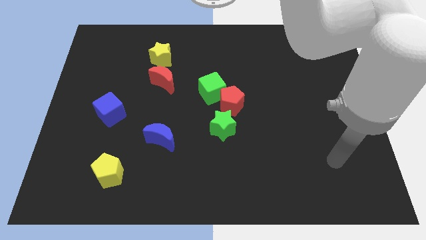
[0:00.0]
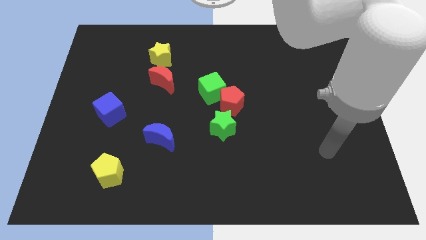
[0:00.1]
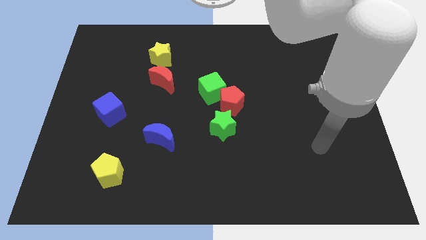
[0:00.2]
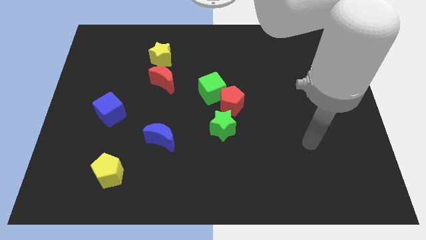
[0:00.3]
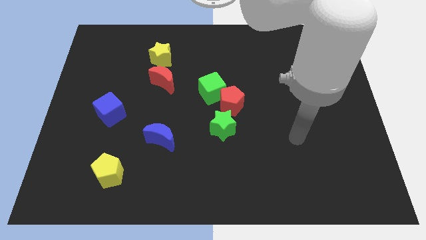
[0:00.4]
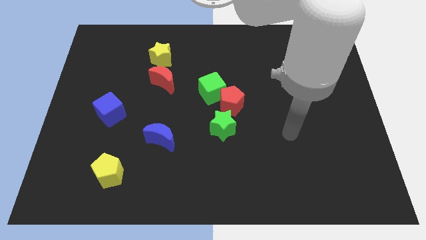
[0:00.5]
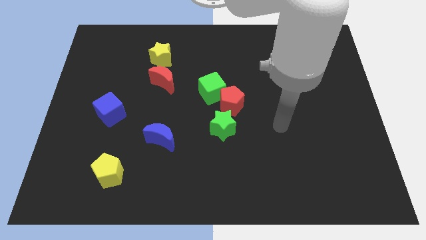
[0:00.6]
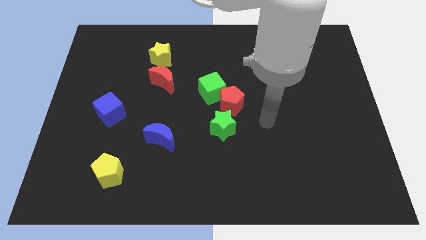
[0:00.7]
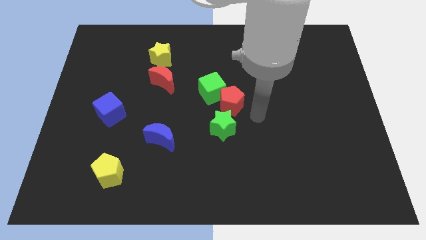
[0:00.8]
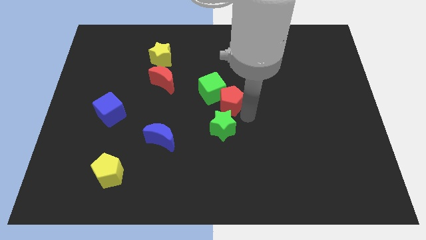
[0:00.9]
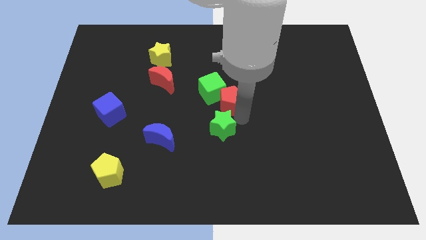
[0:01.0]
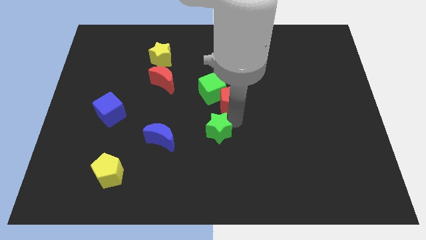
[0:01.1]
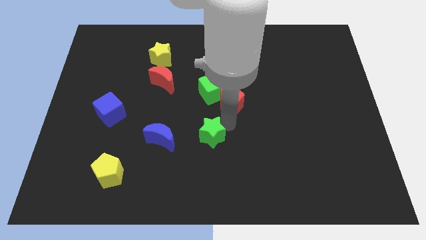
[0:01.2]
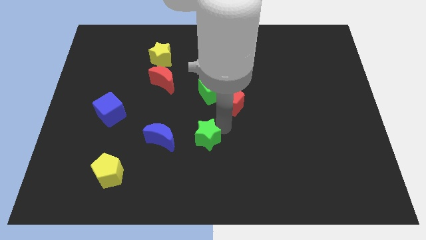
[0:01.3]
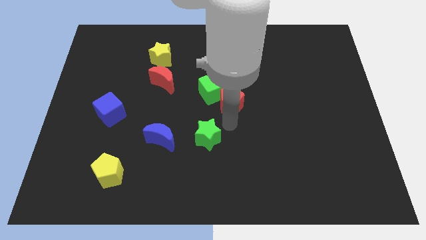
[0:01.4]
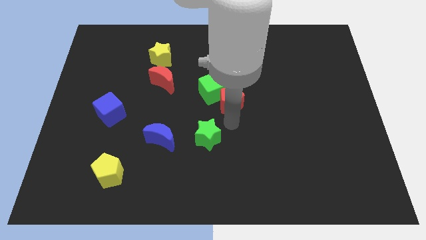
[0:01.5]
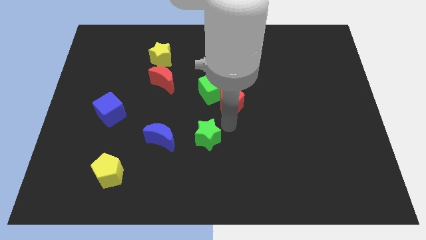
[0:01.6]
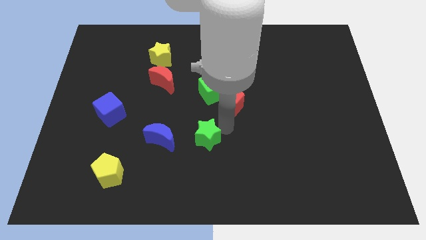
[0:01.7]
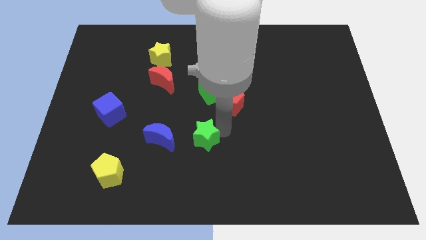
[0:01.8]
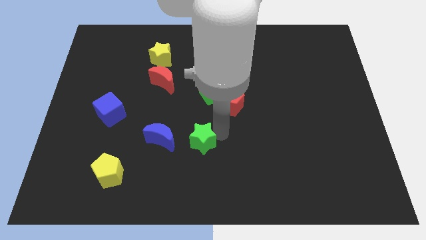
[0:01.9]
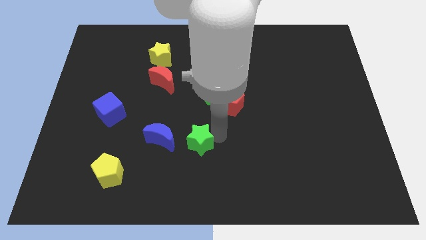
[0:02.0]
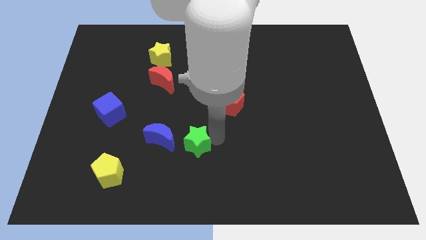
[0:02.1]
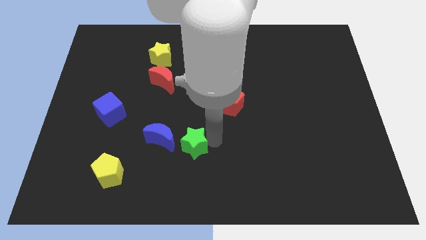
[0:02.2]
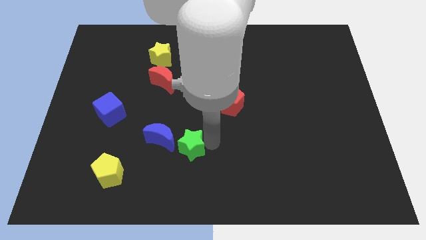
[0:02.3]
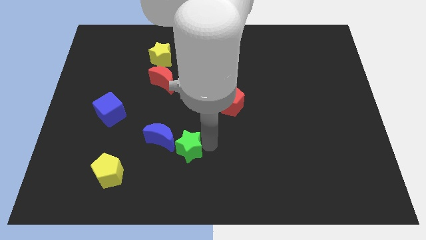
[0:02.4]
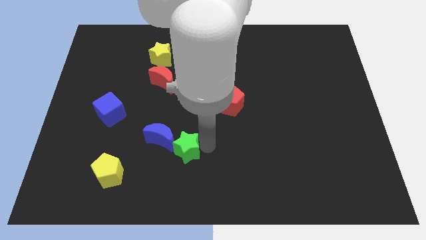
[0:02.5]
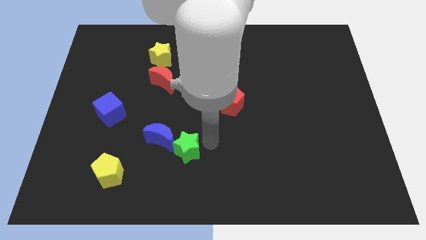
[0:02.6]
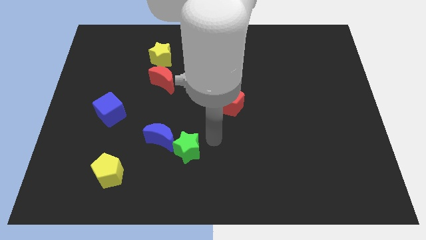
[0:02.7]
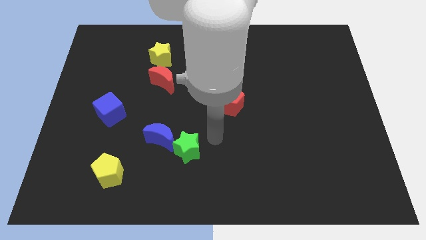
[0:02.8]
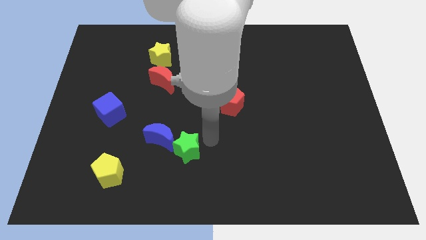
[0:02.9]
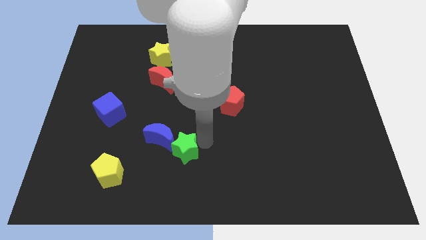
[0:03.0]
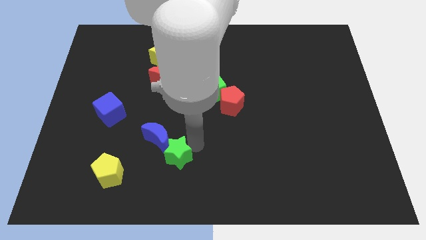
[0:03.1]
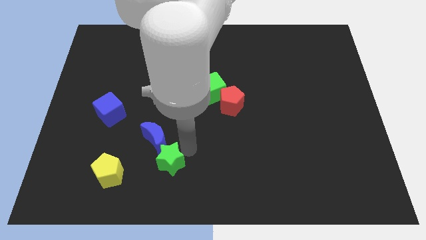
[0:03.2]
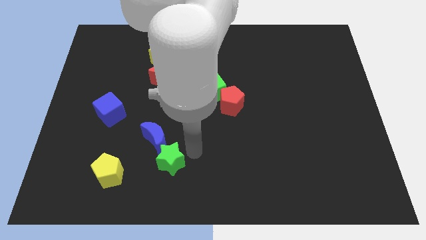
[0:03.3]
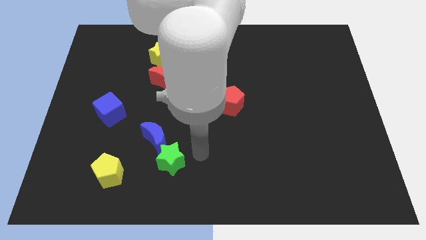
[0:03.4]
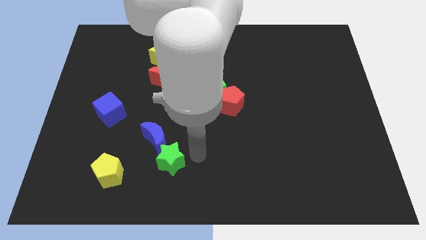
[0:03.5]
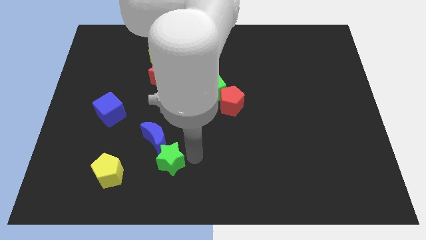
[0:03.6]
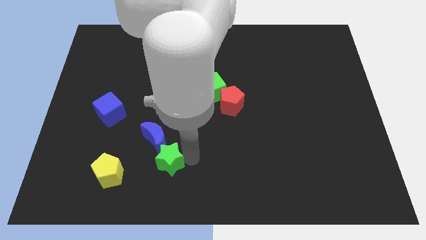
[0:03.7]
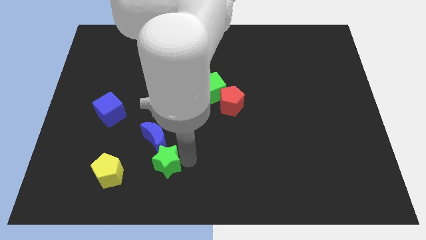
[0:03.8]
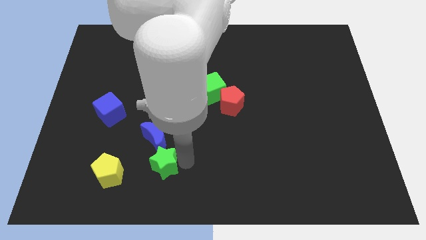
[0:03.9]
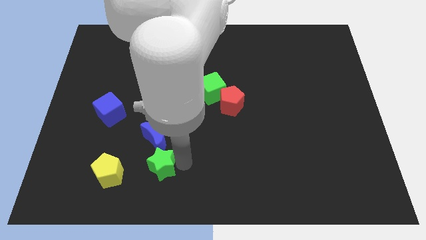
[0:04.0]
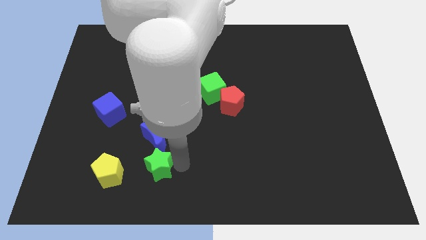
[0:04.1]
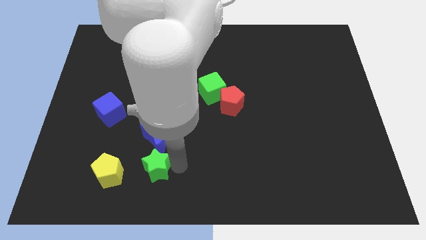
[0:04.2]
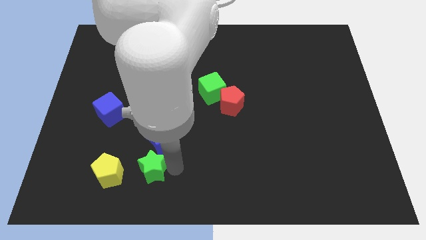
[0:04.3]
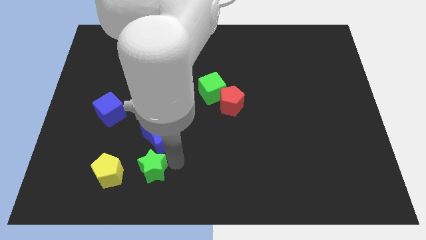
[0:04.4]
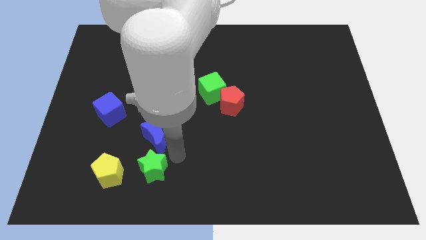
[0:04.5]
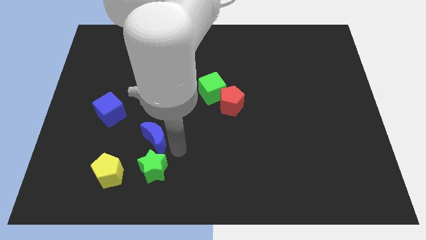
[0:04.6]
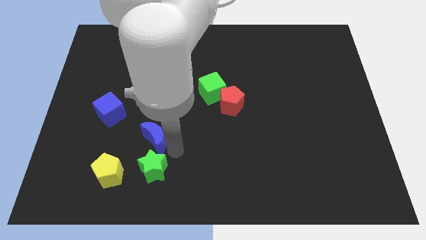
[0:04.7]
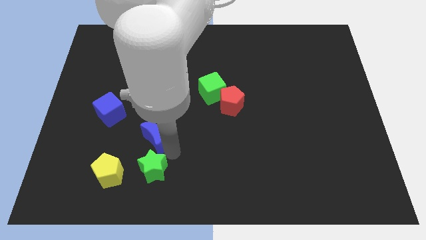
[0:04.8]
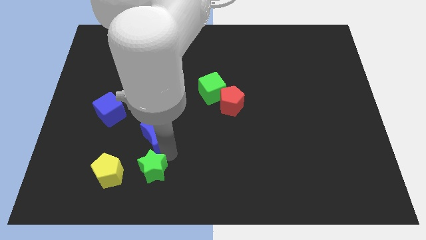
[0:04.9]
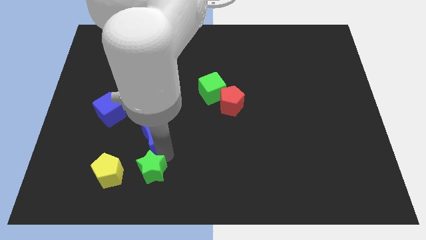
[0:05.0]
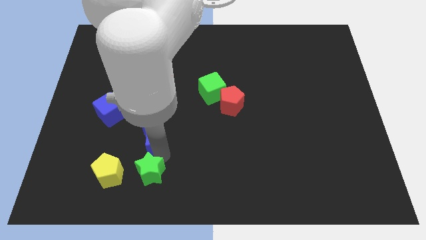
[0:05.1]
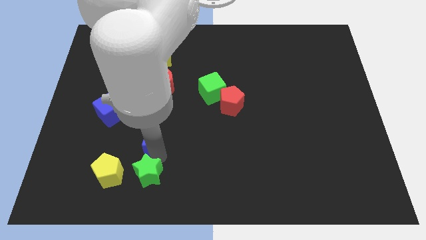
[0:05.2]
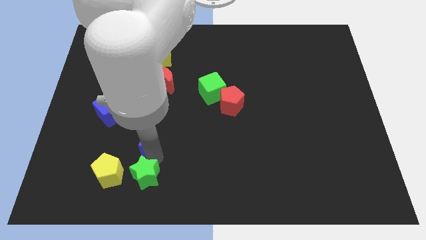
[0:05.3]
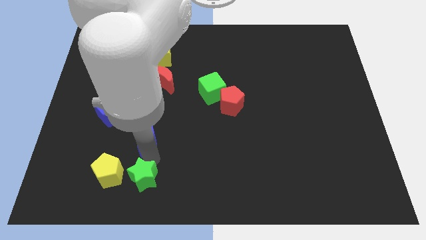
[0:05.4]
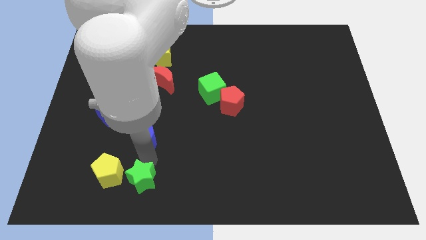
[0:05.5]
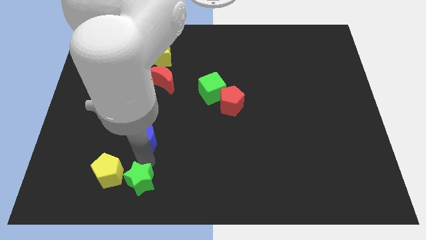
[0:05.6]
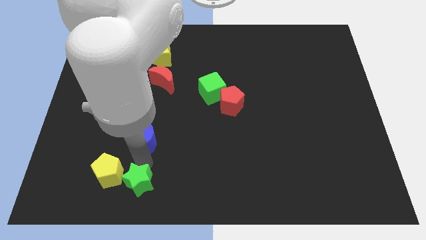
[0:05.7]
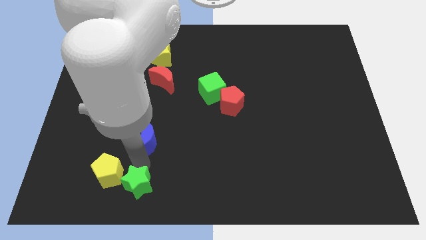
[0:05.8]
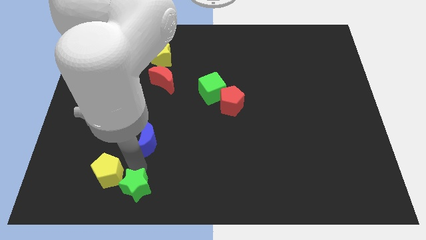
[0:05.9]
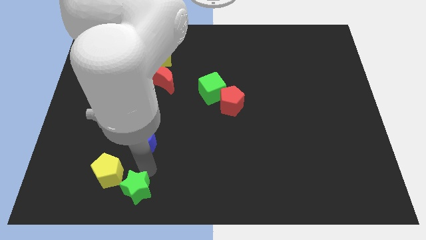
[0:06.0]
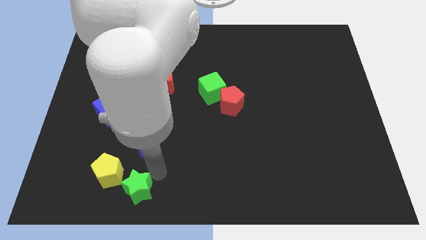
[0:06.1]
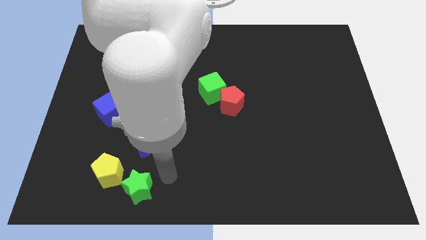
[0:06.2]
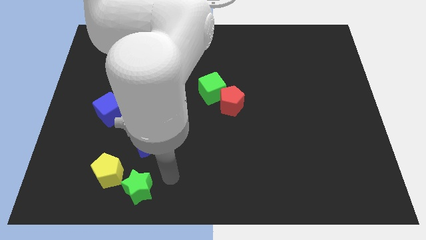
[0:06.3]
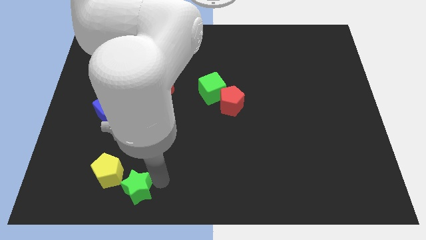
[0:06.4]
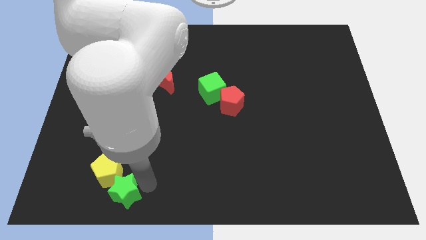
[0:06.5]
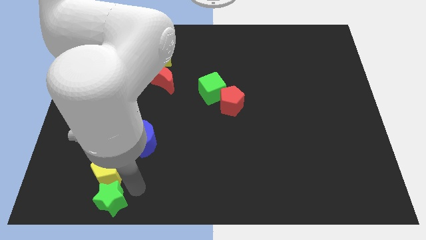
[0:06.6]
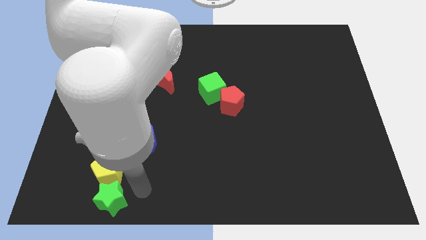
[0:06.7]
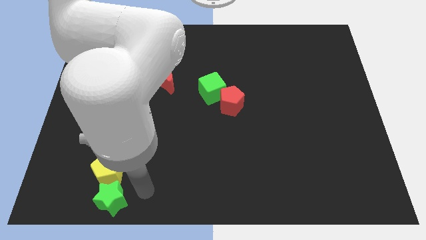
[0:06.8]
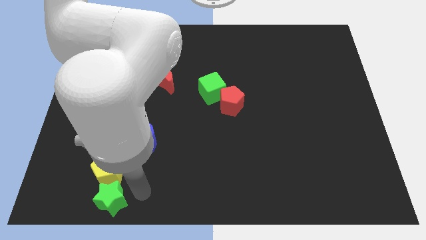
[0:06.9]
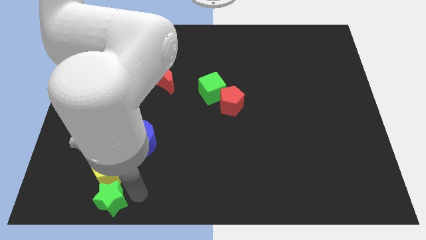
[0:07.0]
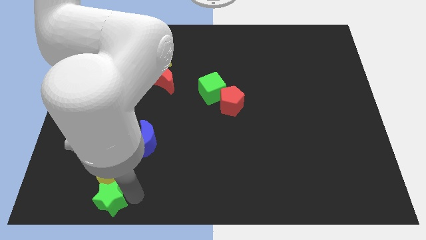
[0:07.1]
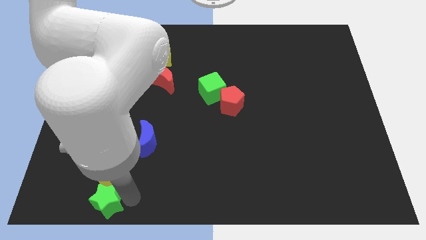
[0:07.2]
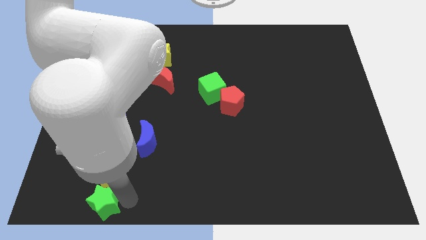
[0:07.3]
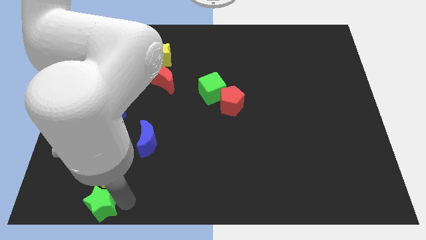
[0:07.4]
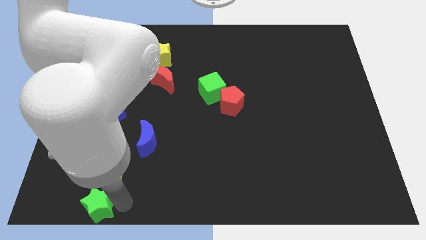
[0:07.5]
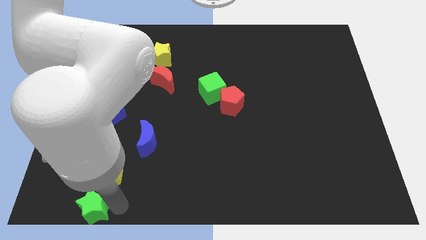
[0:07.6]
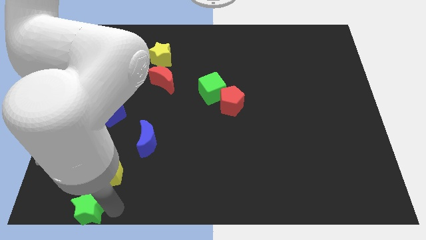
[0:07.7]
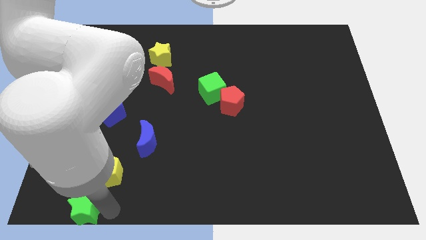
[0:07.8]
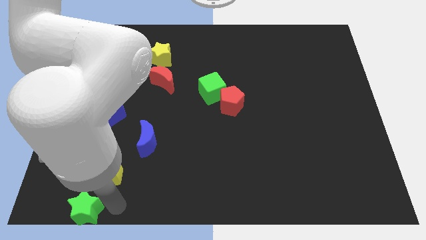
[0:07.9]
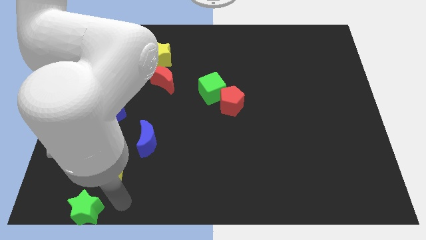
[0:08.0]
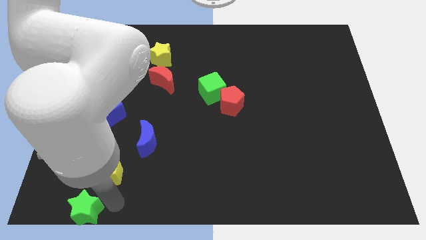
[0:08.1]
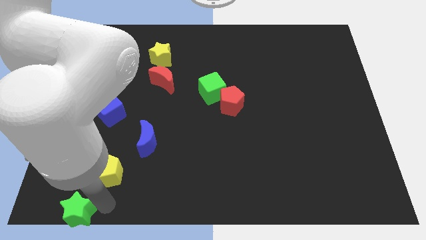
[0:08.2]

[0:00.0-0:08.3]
move the green star to the bottom left corner
